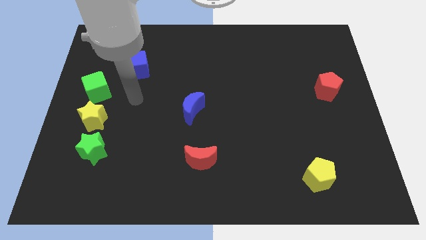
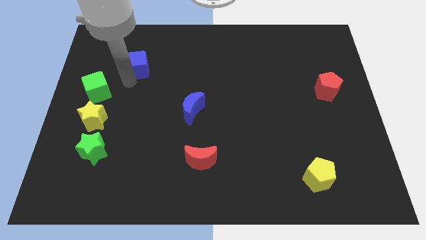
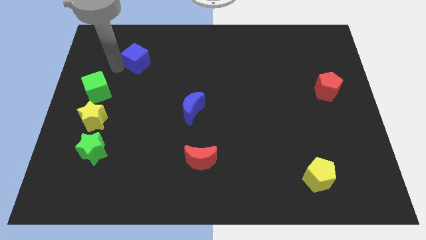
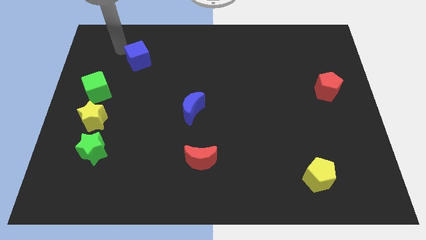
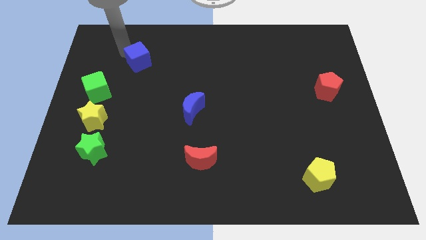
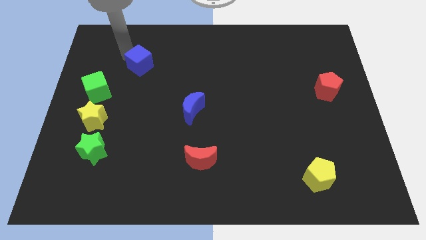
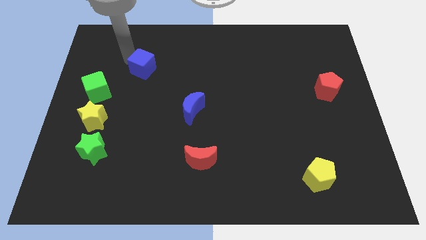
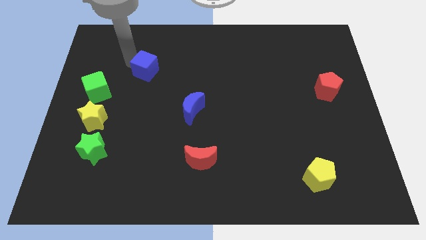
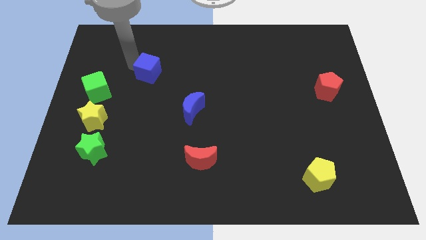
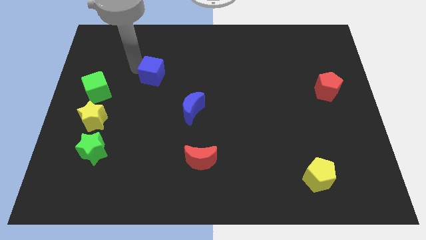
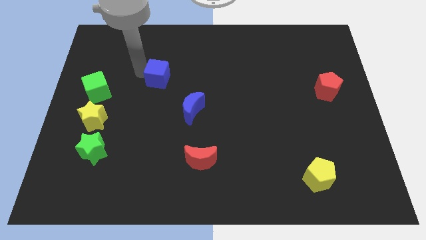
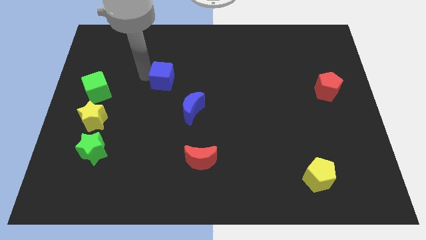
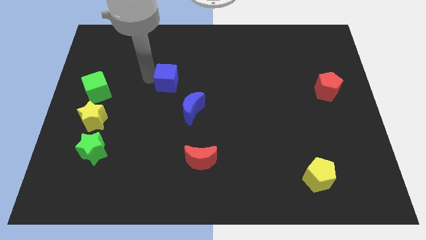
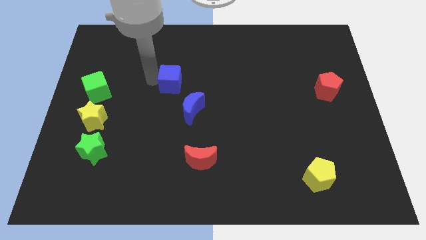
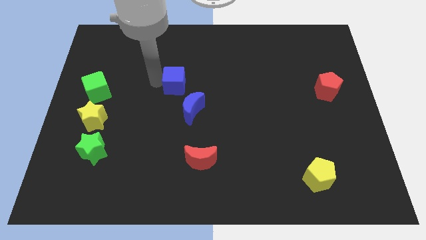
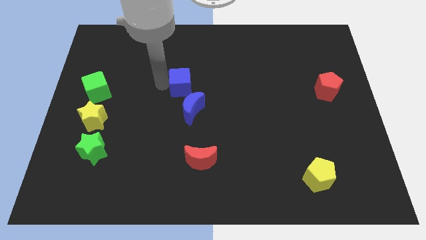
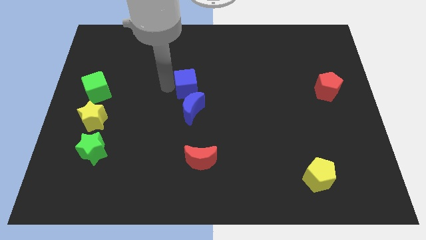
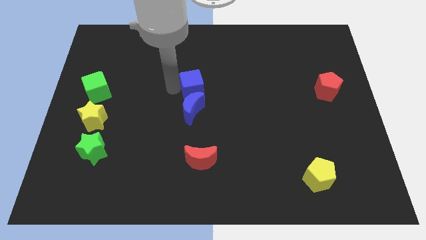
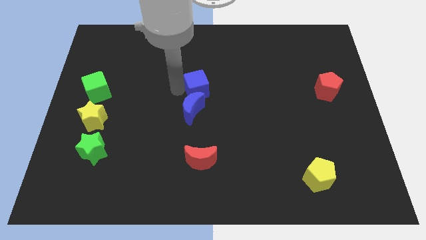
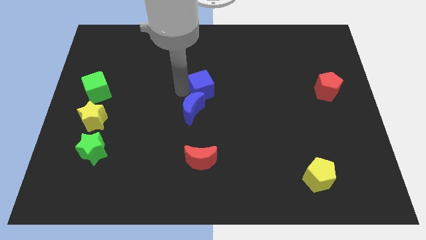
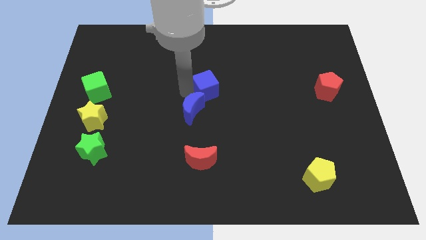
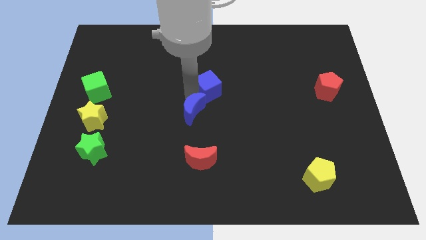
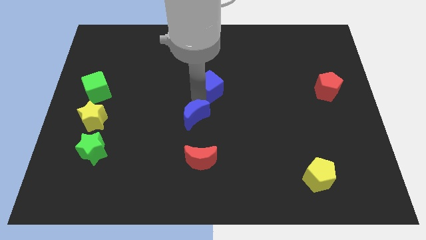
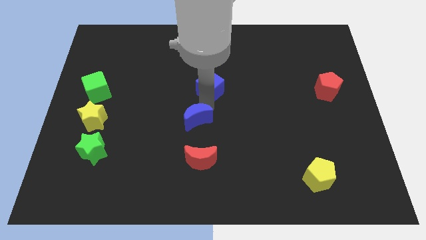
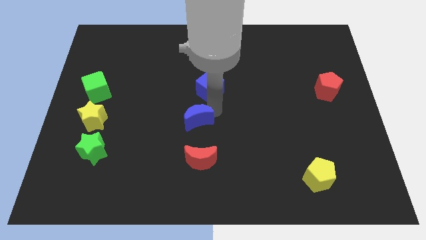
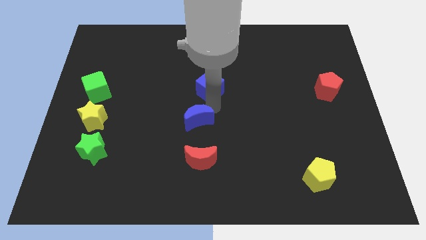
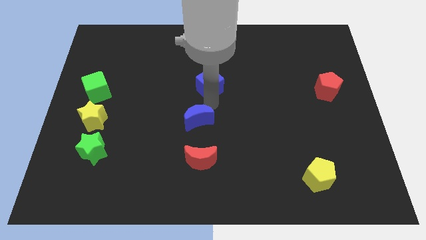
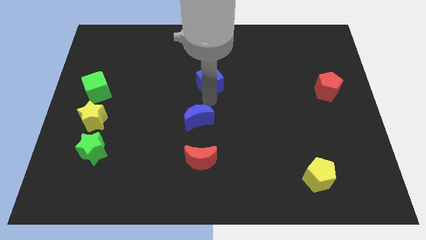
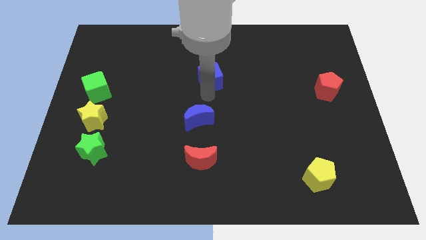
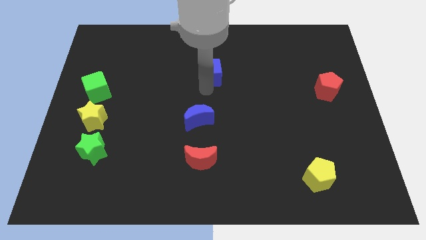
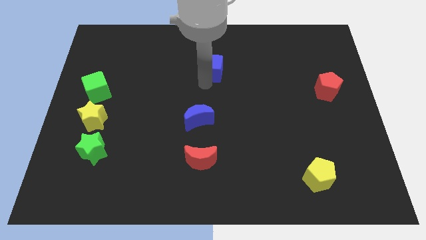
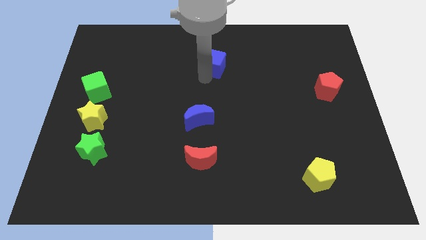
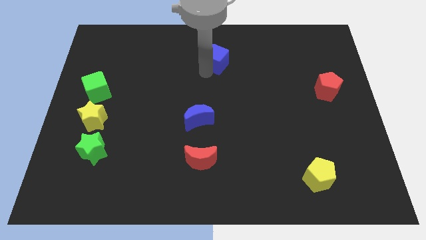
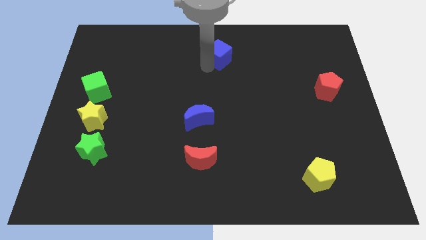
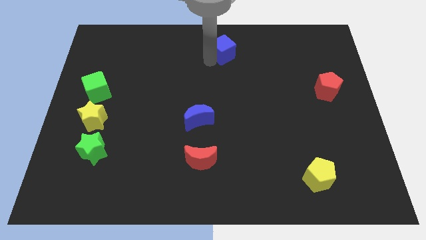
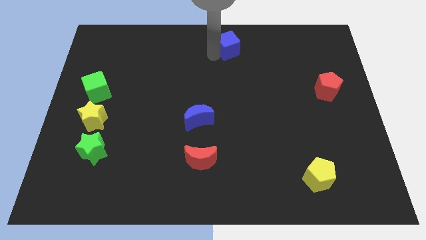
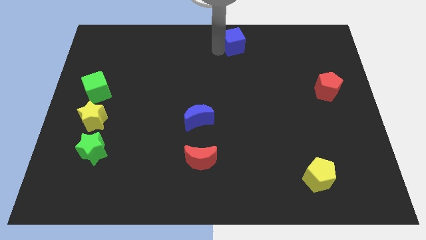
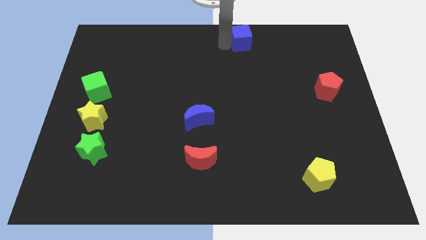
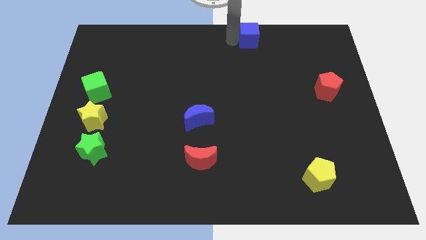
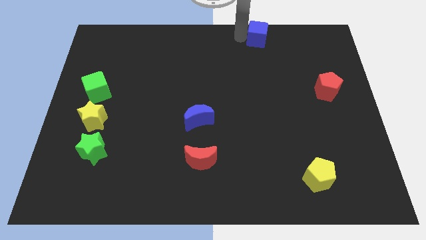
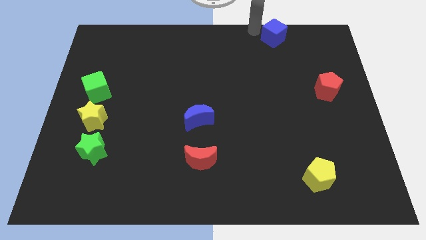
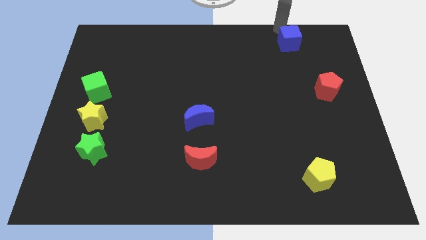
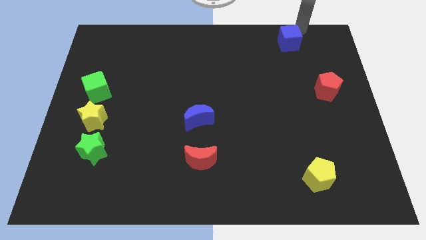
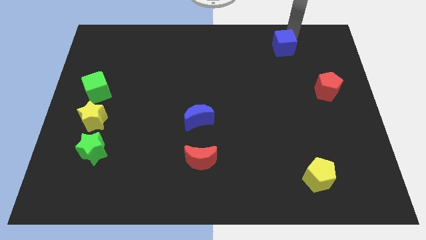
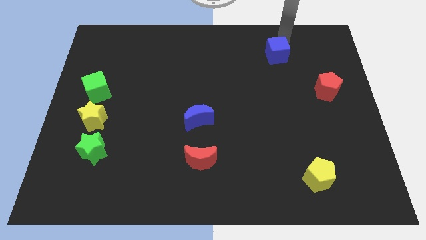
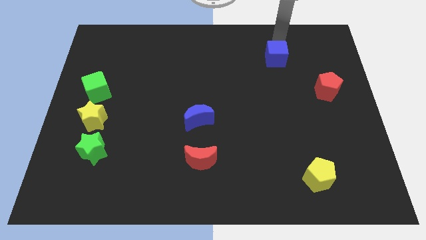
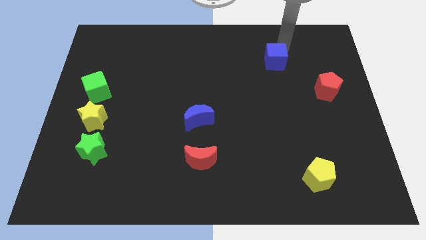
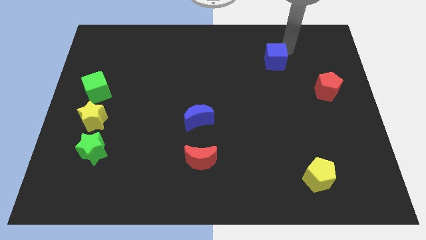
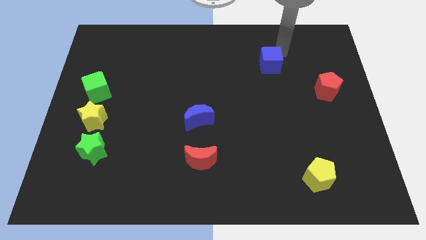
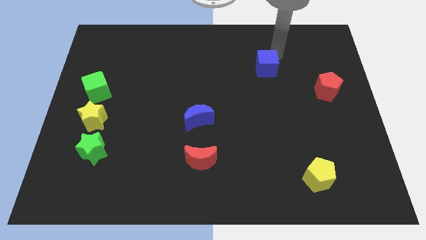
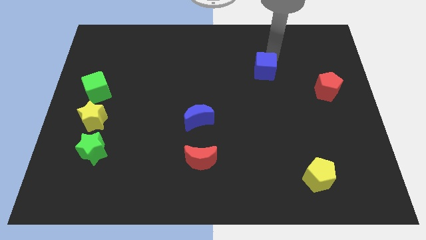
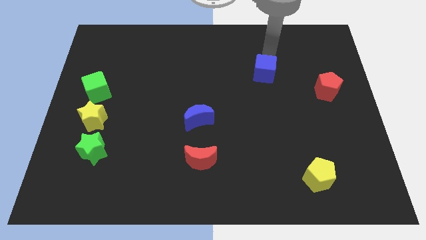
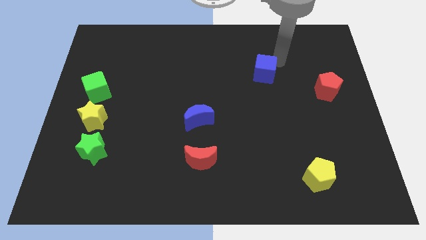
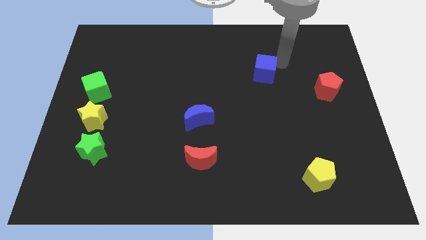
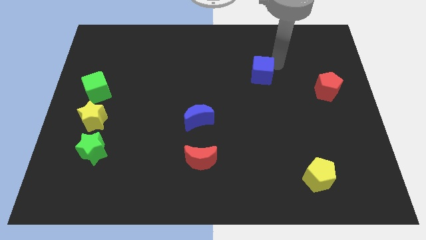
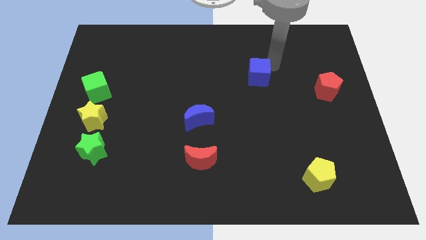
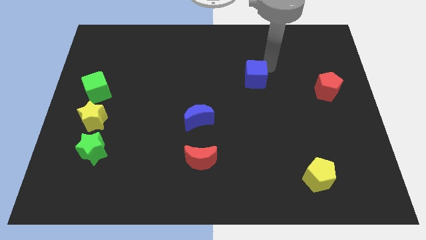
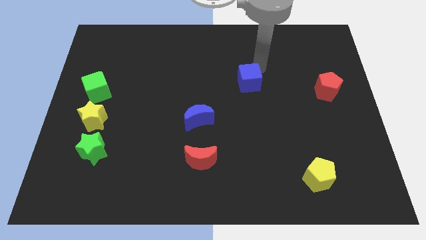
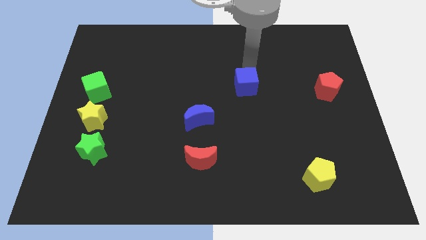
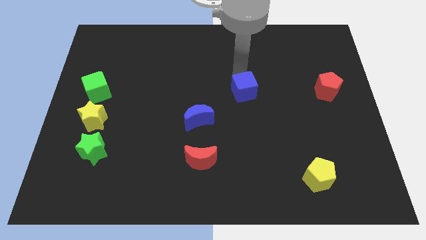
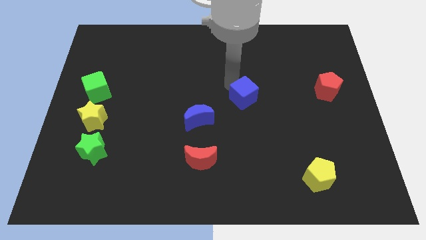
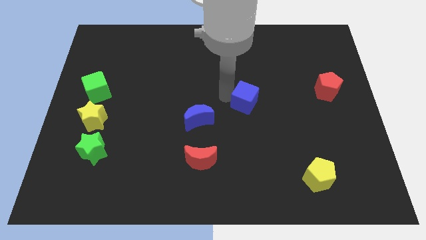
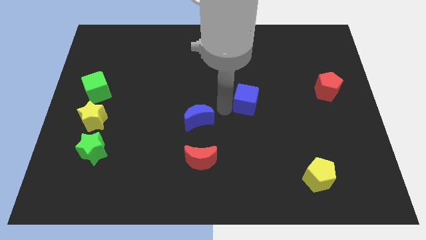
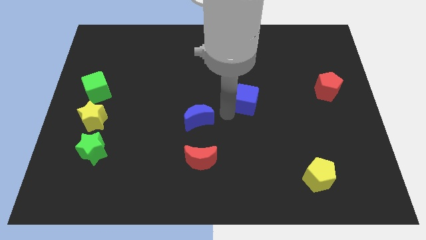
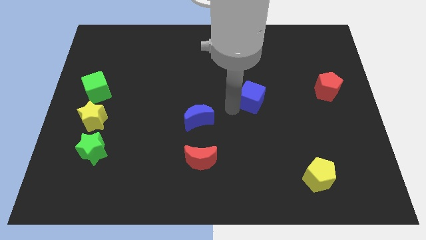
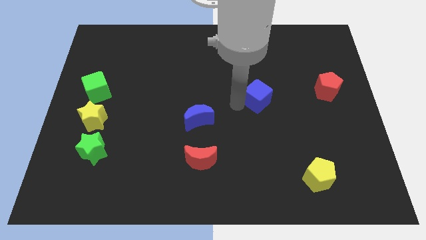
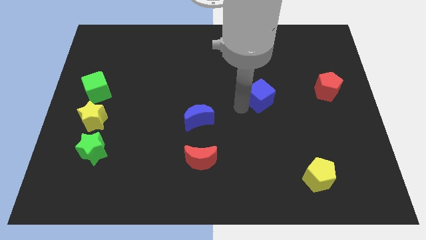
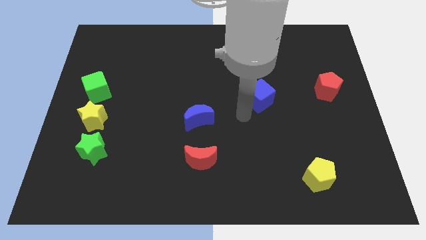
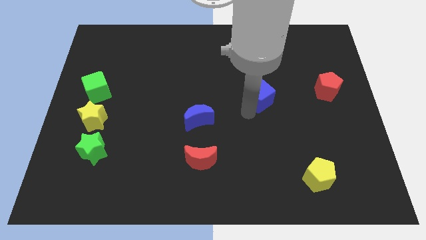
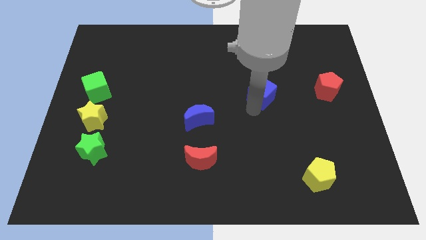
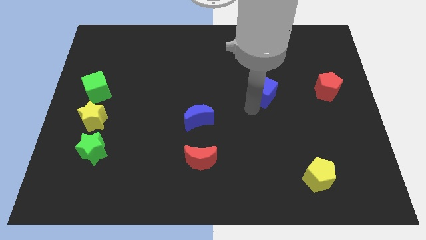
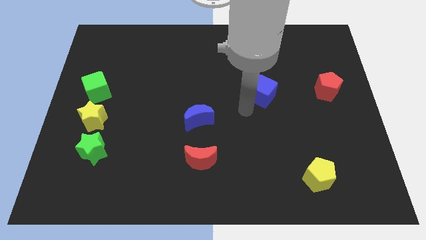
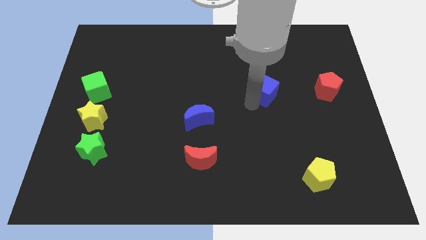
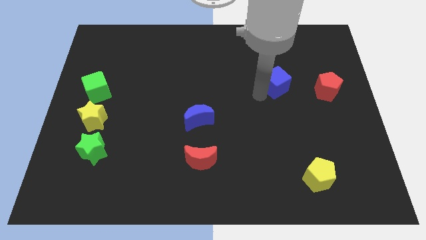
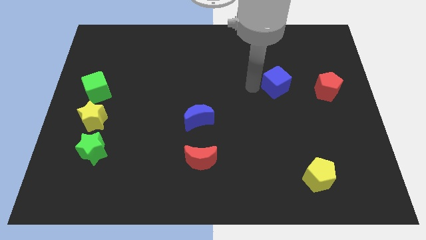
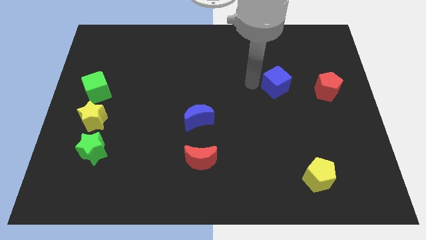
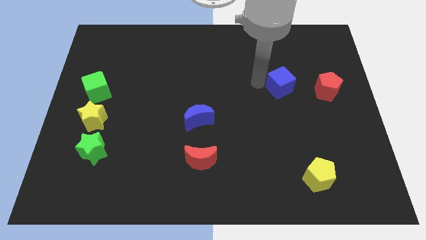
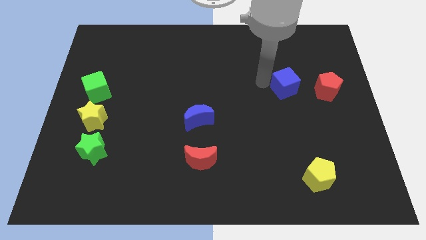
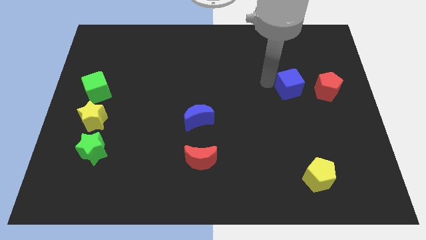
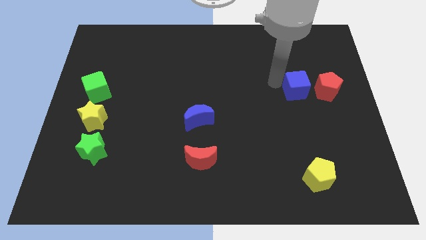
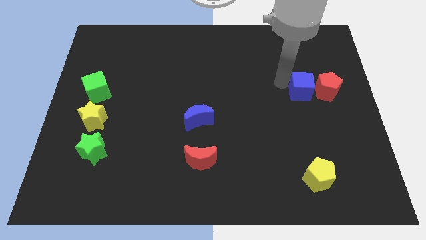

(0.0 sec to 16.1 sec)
push the blue cube towards the red pentagon
